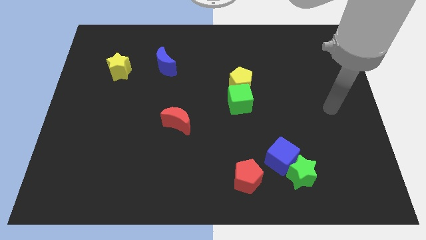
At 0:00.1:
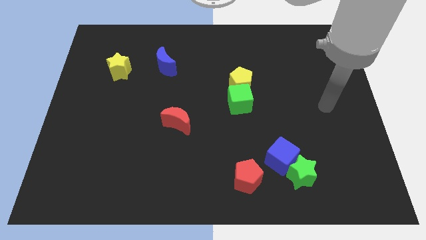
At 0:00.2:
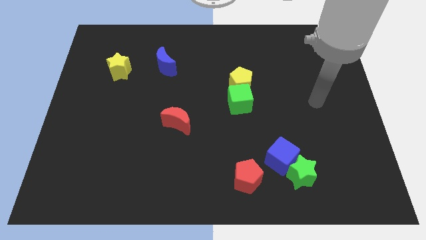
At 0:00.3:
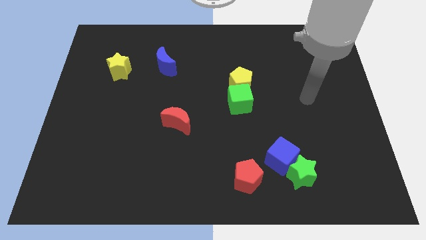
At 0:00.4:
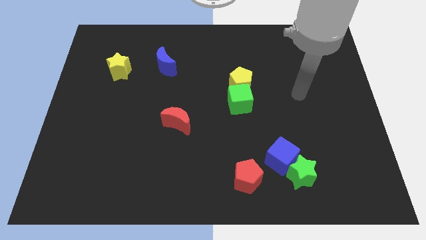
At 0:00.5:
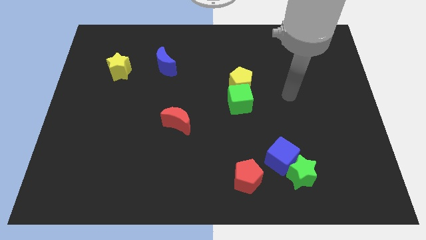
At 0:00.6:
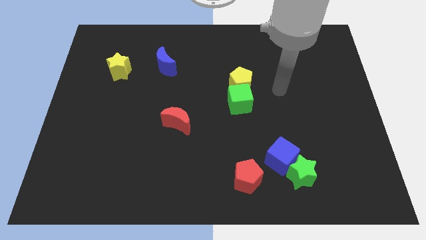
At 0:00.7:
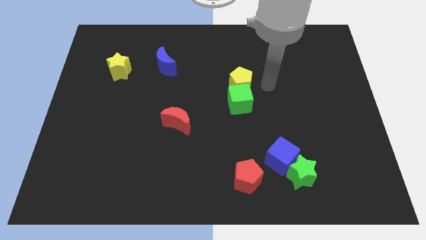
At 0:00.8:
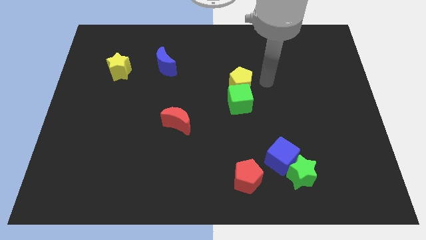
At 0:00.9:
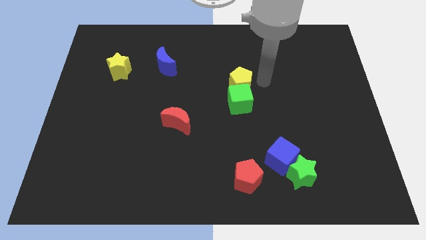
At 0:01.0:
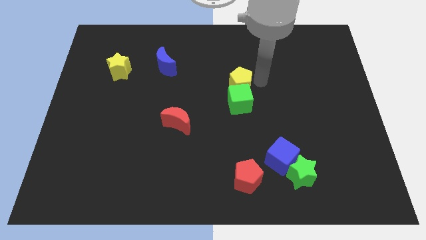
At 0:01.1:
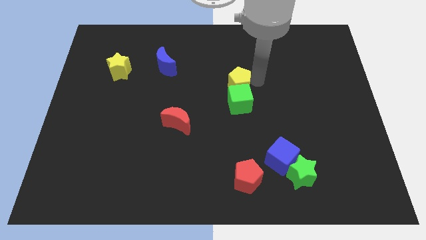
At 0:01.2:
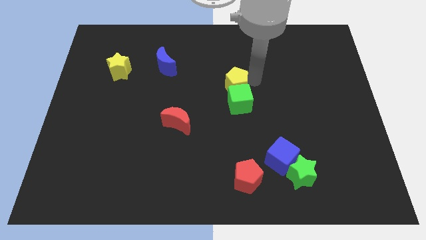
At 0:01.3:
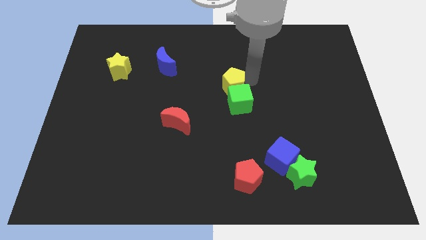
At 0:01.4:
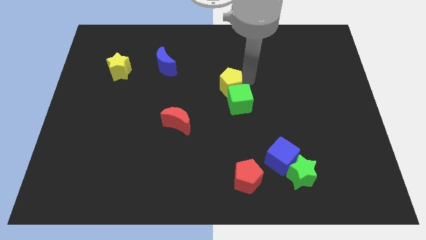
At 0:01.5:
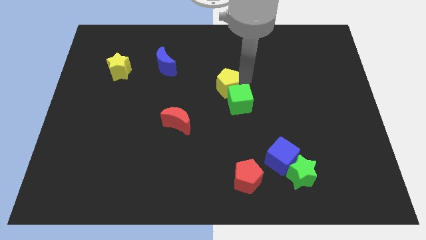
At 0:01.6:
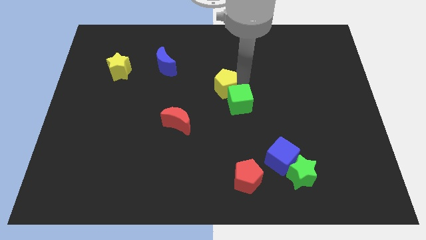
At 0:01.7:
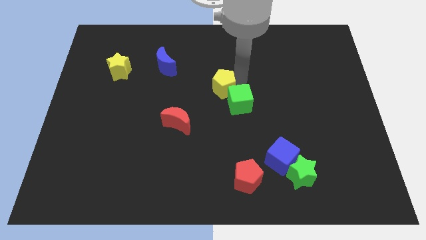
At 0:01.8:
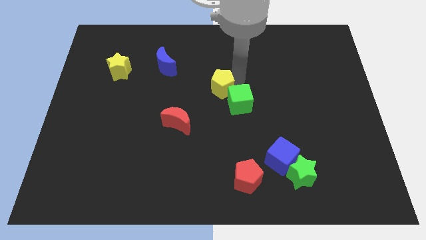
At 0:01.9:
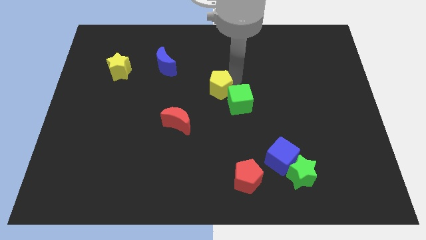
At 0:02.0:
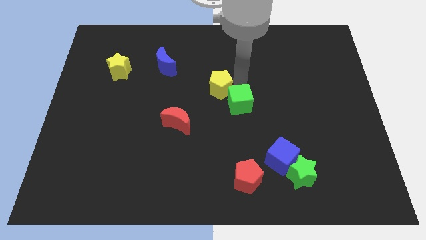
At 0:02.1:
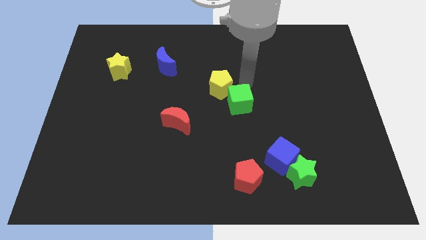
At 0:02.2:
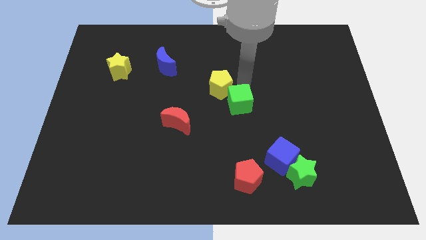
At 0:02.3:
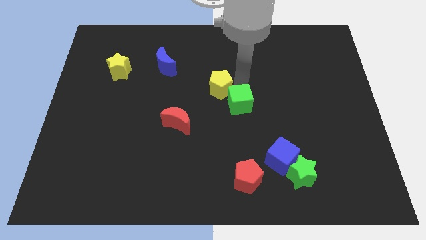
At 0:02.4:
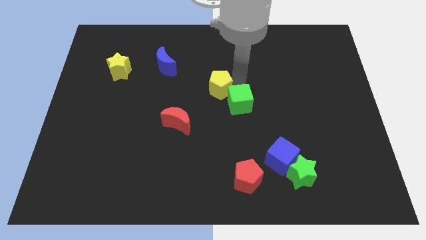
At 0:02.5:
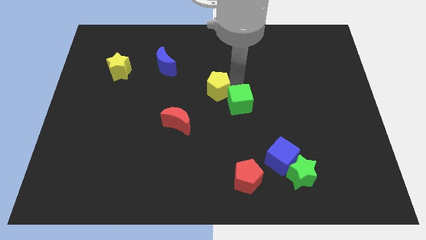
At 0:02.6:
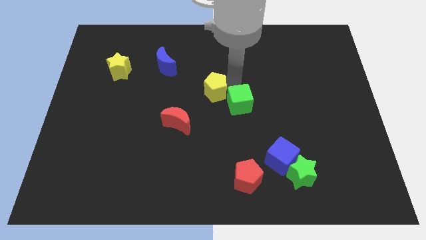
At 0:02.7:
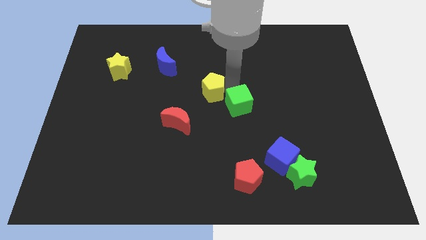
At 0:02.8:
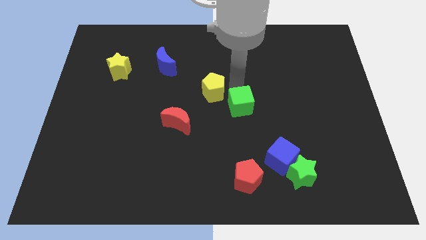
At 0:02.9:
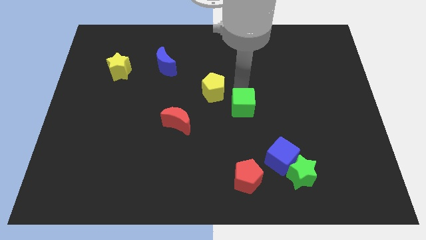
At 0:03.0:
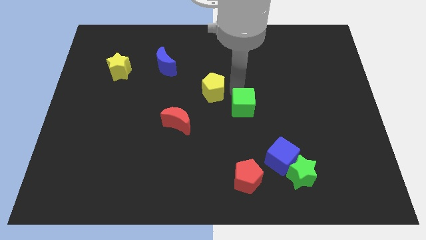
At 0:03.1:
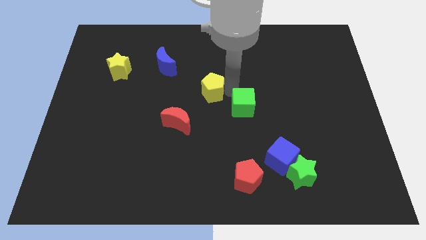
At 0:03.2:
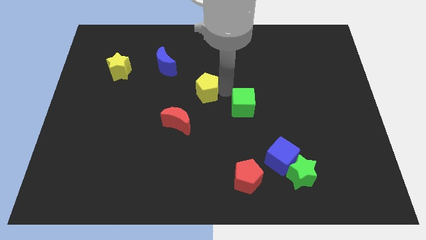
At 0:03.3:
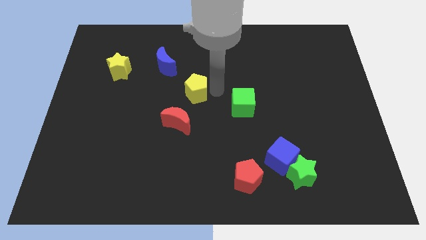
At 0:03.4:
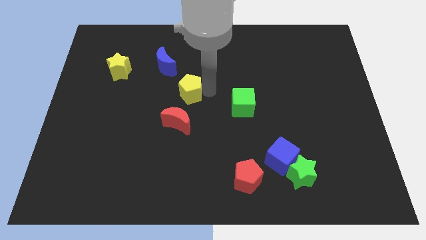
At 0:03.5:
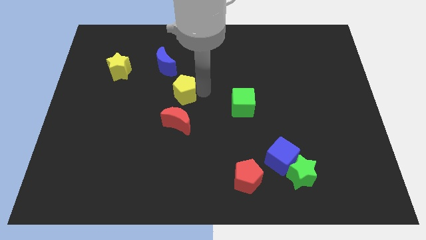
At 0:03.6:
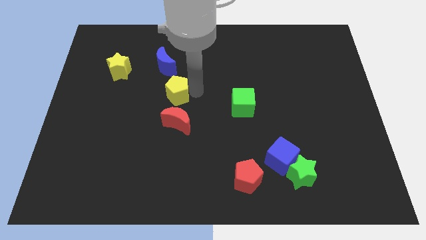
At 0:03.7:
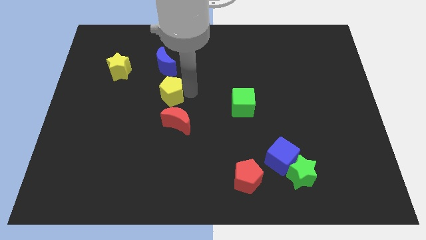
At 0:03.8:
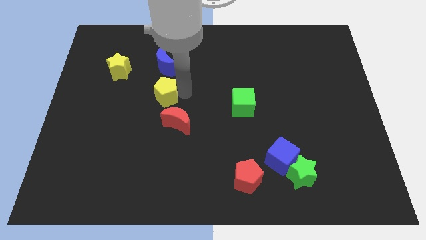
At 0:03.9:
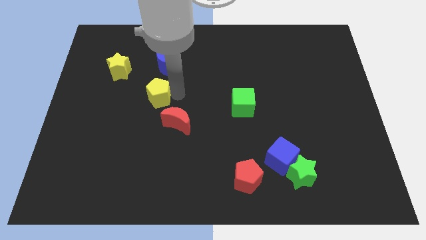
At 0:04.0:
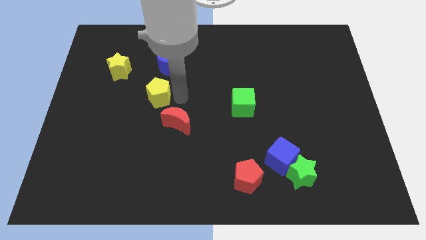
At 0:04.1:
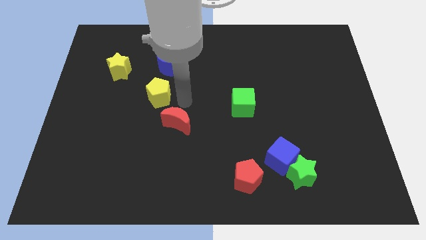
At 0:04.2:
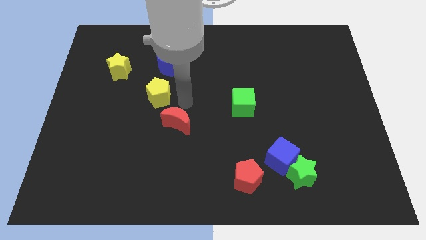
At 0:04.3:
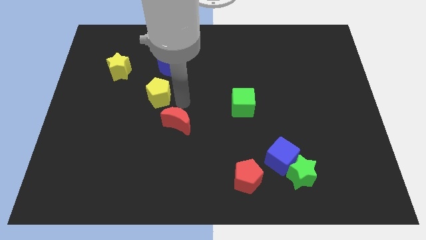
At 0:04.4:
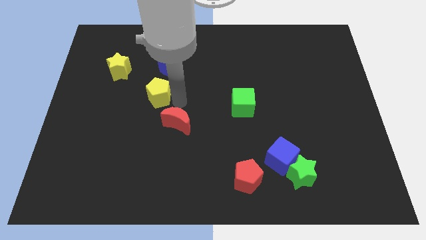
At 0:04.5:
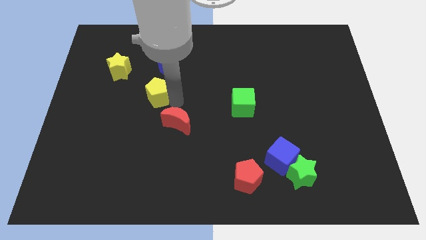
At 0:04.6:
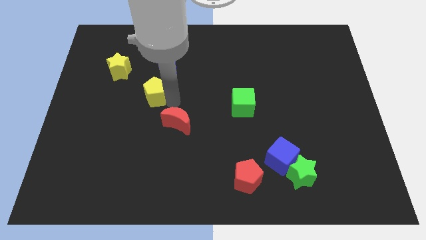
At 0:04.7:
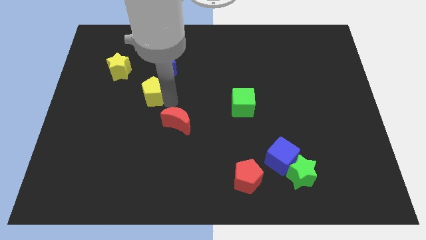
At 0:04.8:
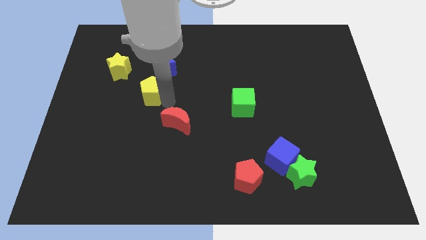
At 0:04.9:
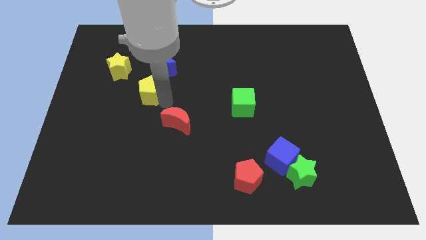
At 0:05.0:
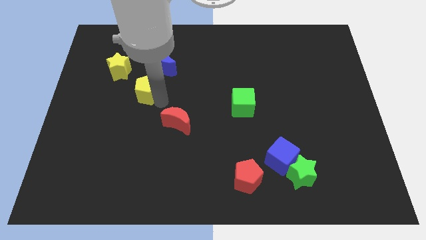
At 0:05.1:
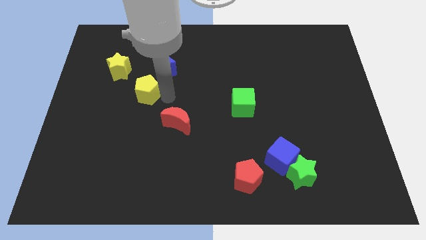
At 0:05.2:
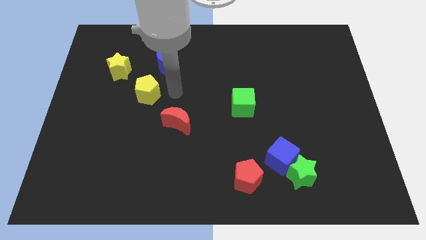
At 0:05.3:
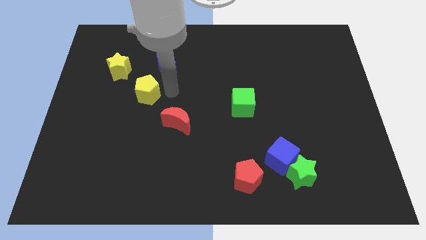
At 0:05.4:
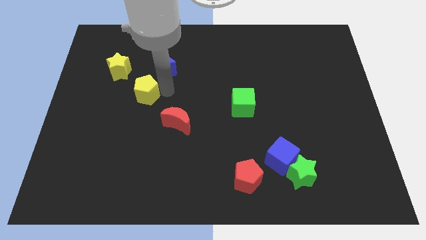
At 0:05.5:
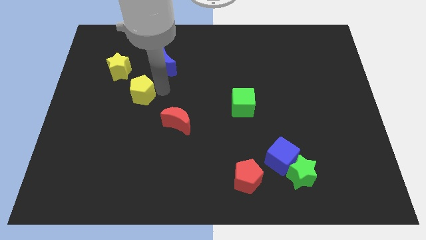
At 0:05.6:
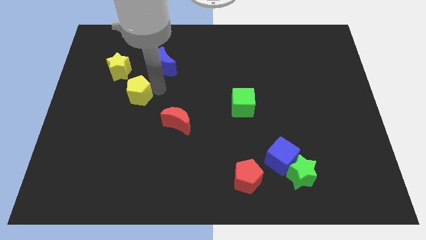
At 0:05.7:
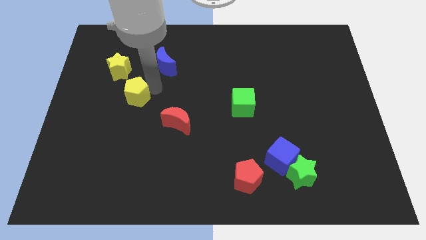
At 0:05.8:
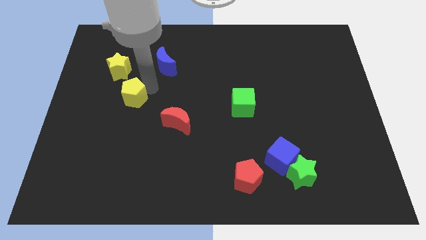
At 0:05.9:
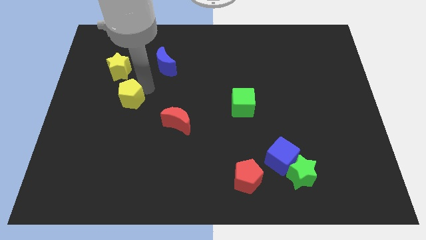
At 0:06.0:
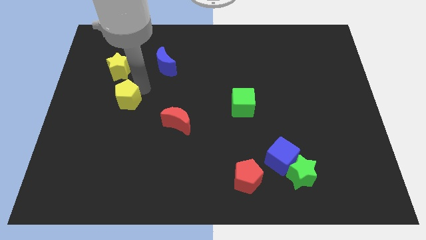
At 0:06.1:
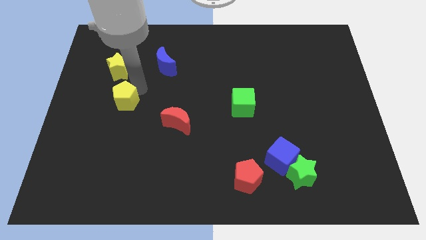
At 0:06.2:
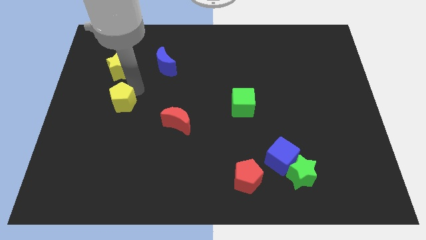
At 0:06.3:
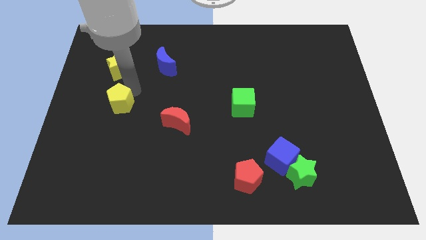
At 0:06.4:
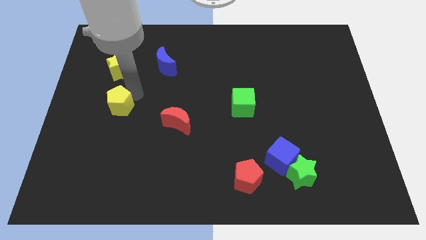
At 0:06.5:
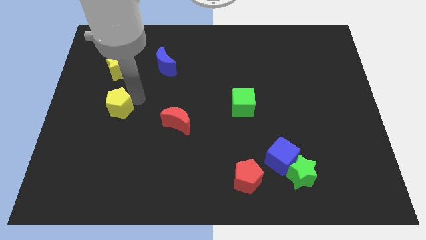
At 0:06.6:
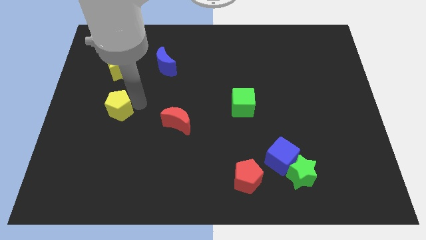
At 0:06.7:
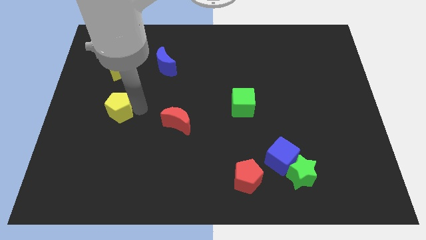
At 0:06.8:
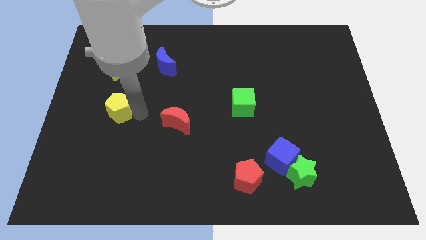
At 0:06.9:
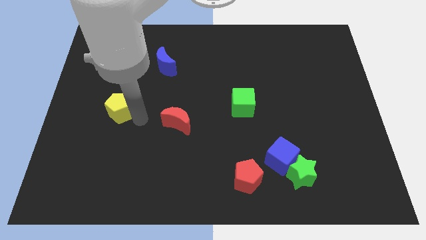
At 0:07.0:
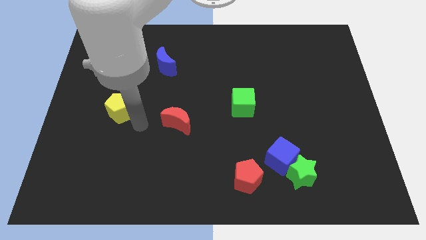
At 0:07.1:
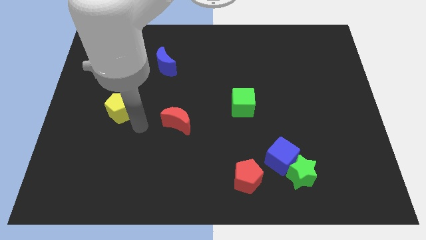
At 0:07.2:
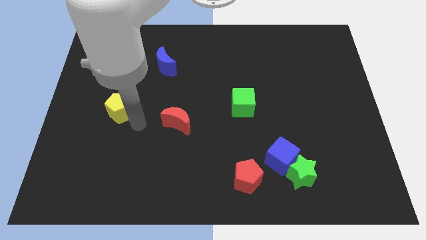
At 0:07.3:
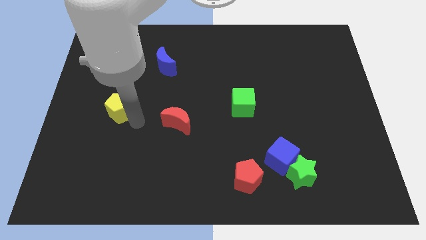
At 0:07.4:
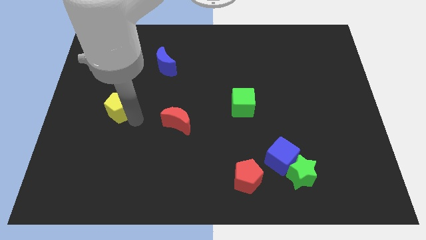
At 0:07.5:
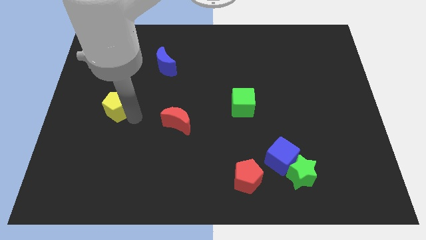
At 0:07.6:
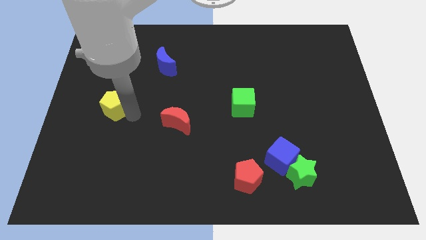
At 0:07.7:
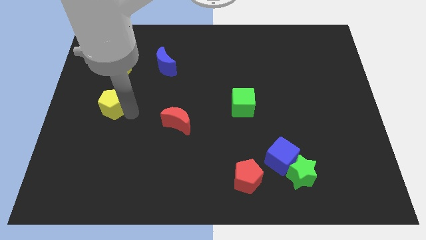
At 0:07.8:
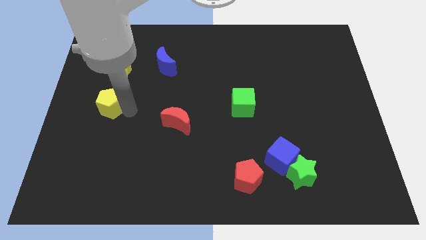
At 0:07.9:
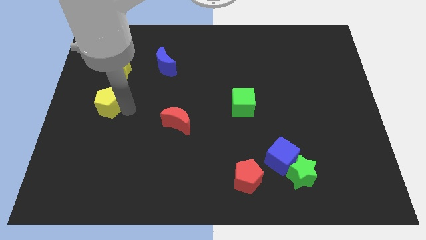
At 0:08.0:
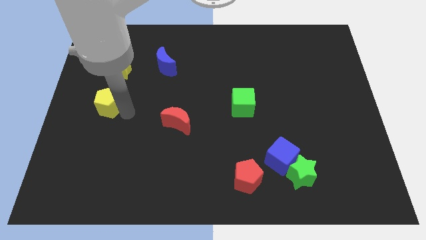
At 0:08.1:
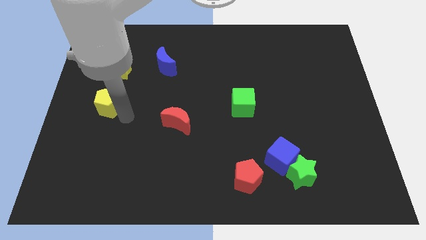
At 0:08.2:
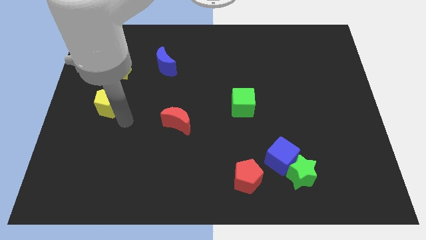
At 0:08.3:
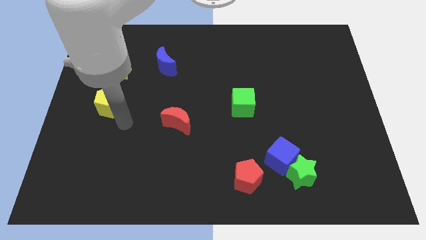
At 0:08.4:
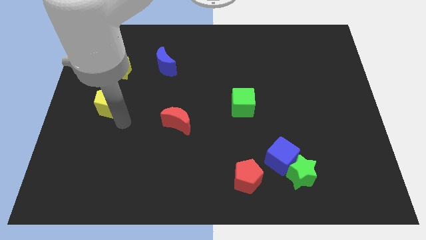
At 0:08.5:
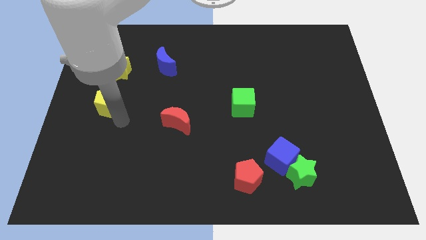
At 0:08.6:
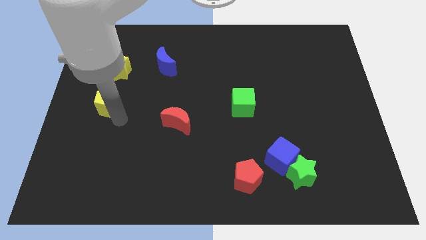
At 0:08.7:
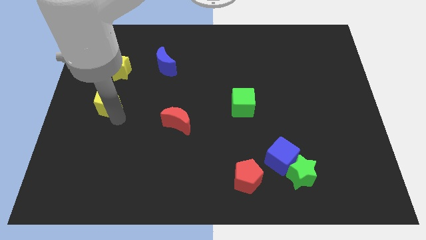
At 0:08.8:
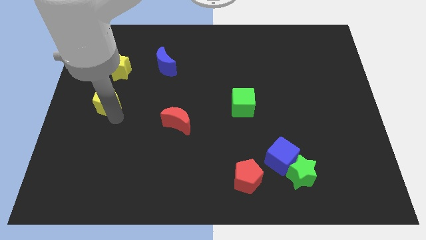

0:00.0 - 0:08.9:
push the yellow pentagon to the left side of the board
